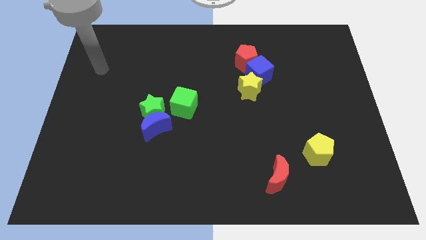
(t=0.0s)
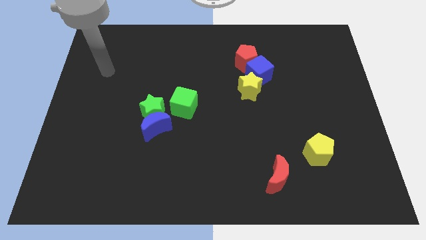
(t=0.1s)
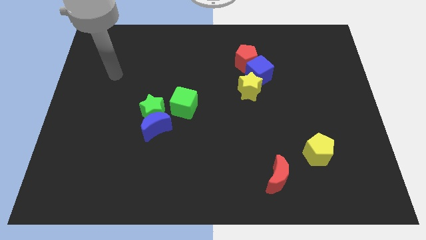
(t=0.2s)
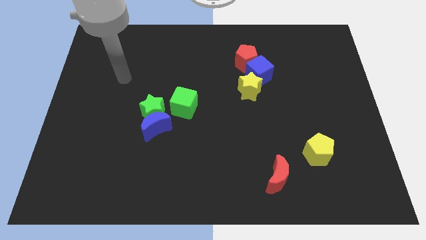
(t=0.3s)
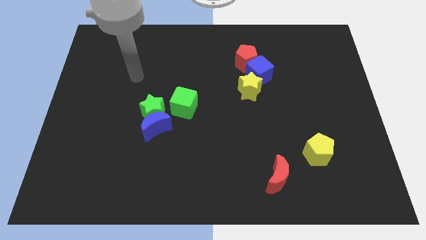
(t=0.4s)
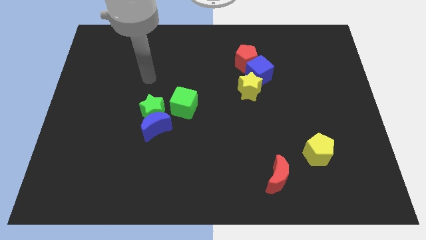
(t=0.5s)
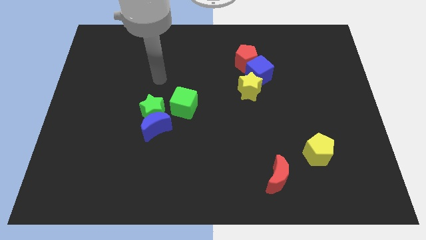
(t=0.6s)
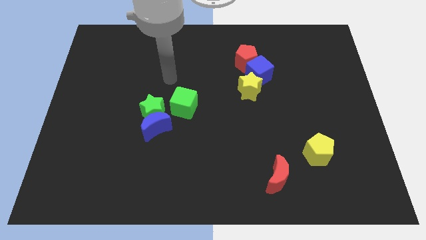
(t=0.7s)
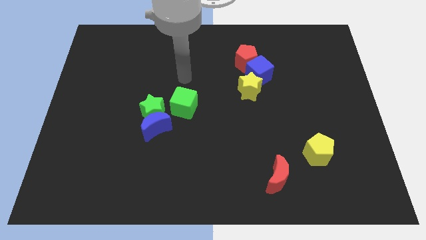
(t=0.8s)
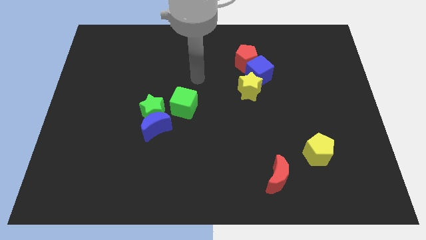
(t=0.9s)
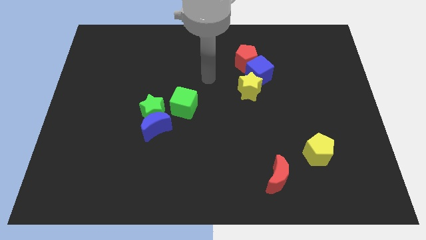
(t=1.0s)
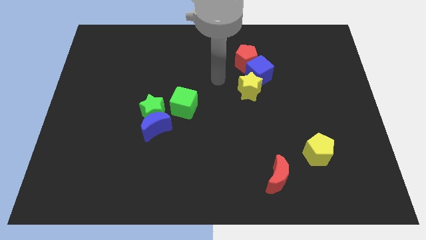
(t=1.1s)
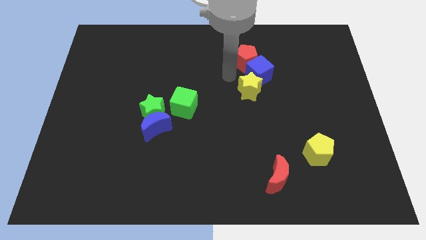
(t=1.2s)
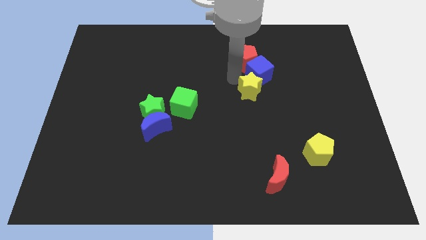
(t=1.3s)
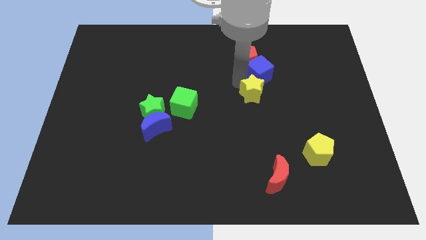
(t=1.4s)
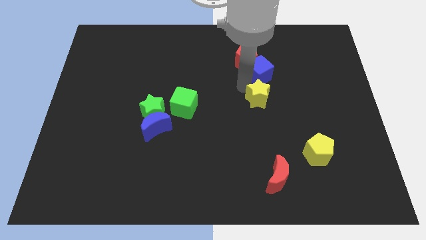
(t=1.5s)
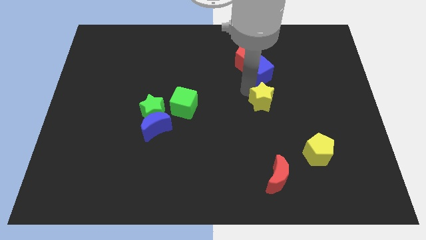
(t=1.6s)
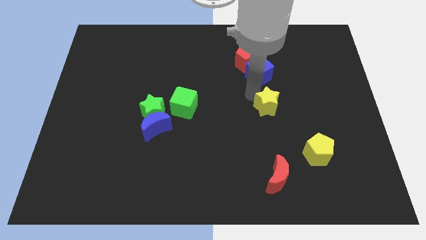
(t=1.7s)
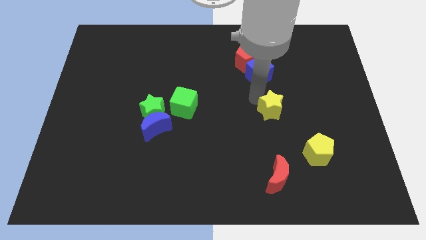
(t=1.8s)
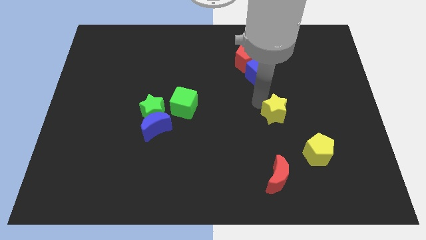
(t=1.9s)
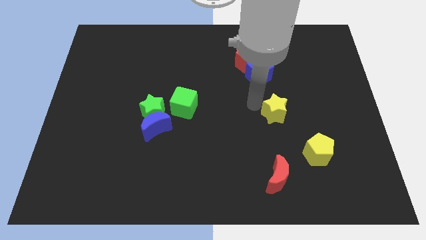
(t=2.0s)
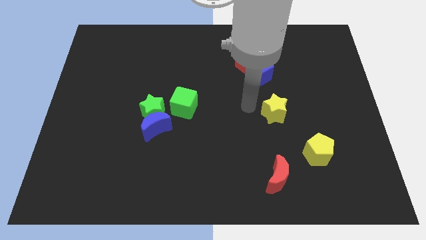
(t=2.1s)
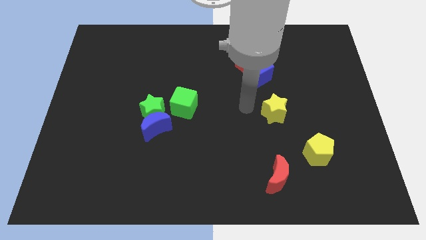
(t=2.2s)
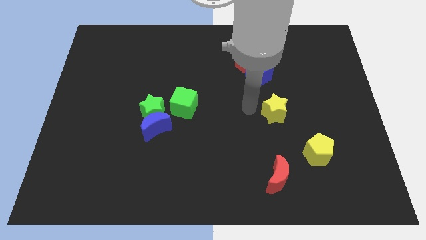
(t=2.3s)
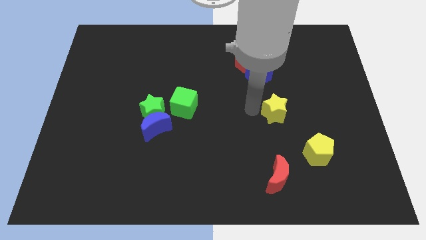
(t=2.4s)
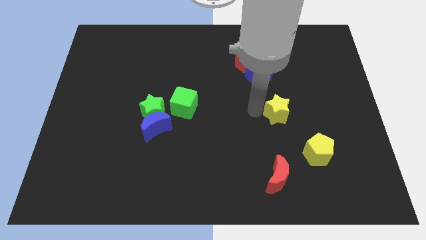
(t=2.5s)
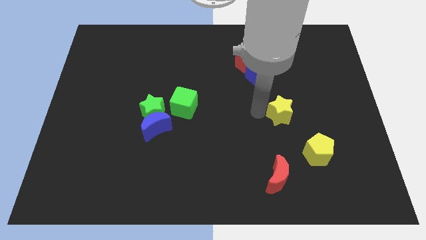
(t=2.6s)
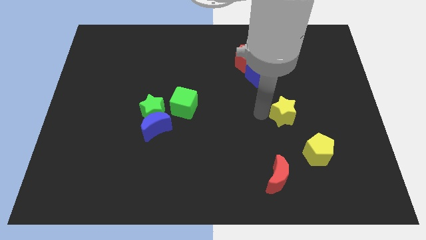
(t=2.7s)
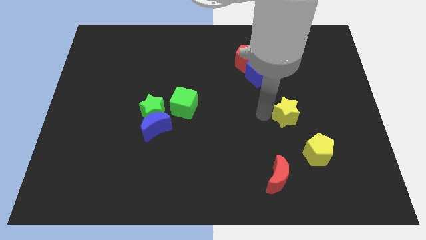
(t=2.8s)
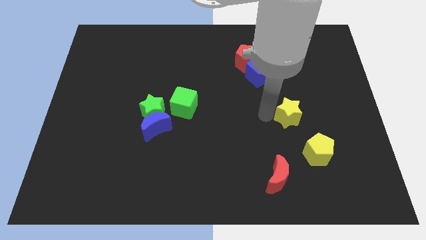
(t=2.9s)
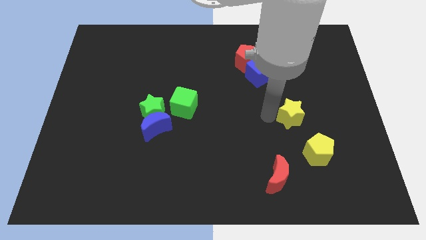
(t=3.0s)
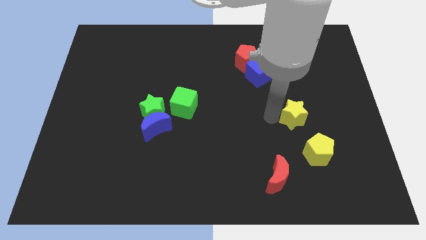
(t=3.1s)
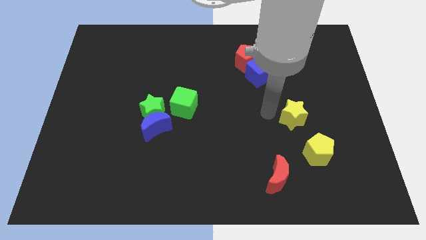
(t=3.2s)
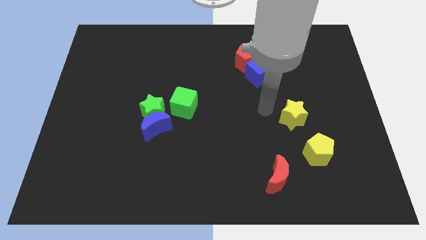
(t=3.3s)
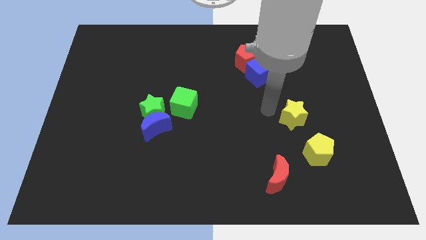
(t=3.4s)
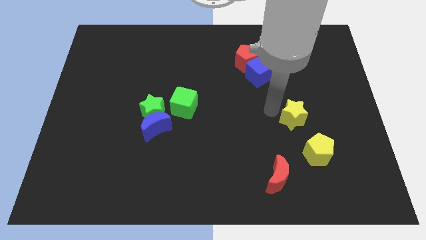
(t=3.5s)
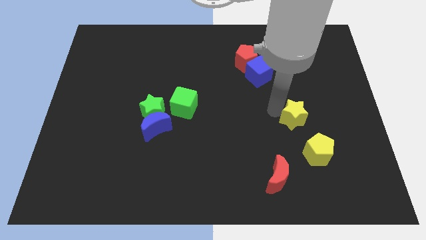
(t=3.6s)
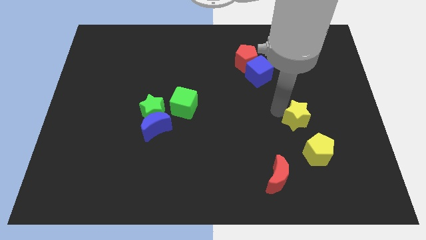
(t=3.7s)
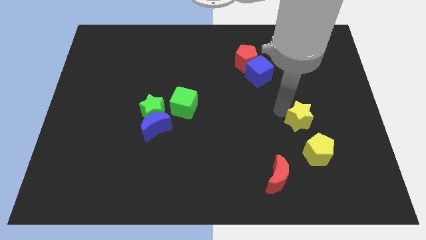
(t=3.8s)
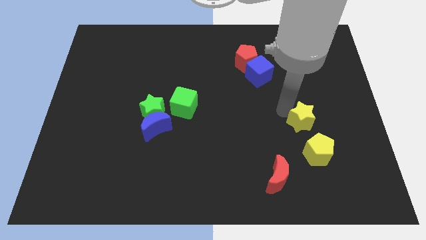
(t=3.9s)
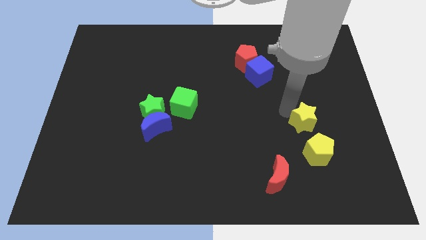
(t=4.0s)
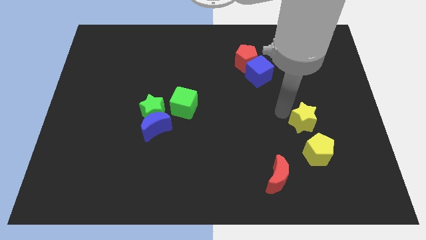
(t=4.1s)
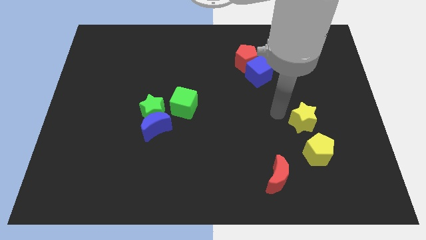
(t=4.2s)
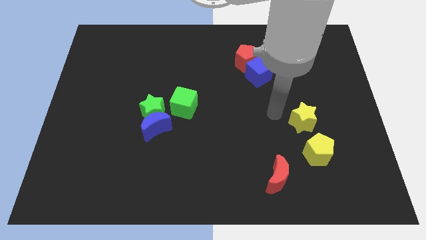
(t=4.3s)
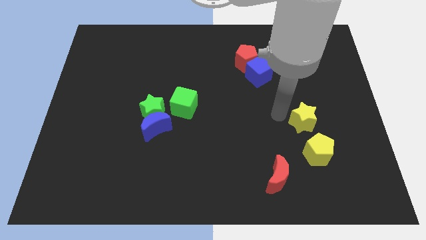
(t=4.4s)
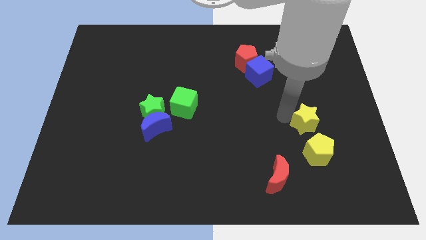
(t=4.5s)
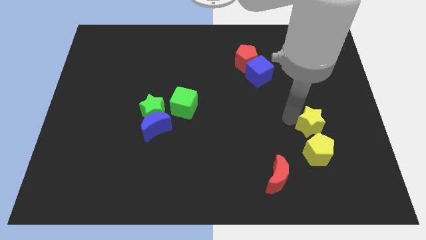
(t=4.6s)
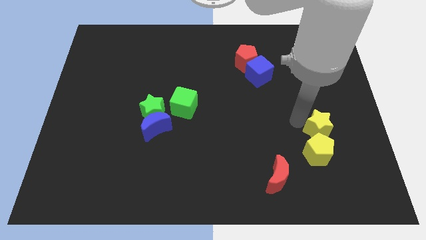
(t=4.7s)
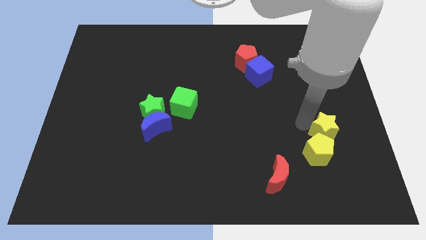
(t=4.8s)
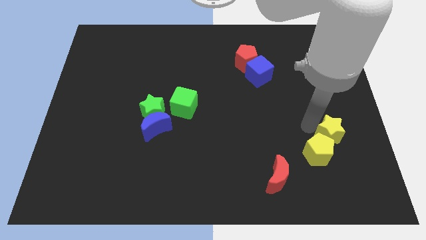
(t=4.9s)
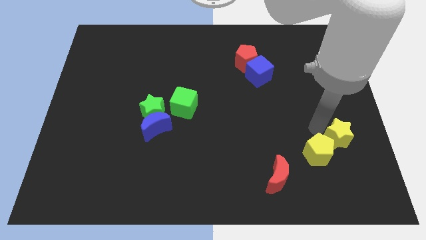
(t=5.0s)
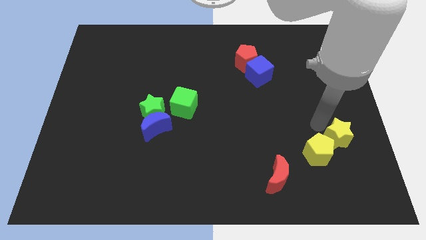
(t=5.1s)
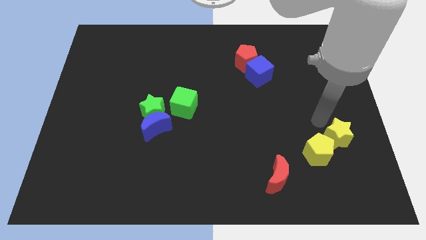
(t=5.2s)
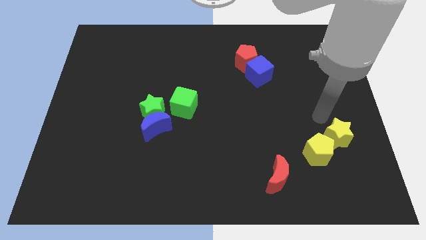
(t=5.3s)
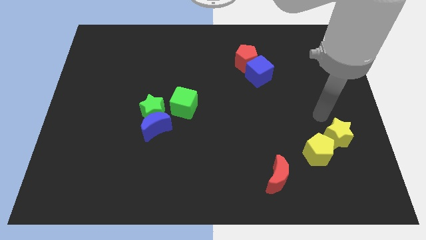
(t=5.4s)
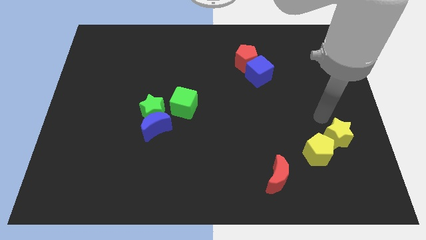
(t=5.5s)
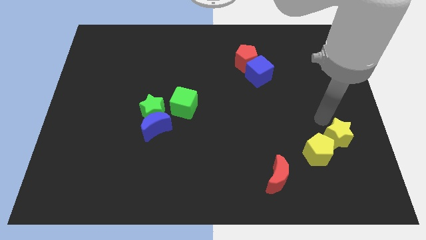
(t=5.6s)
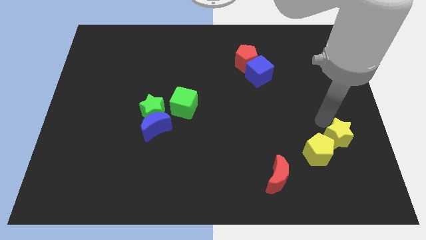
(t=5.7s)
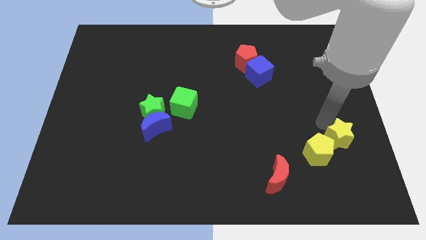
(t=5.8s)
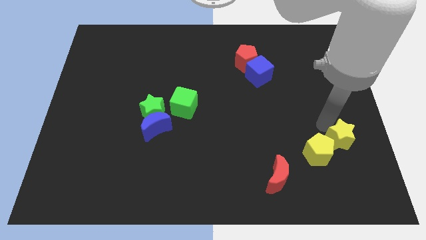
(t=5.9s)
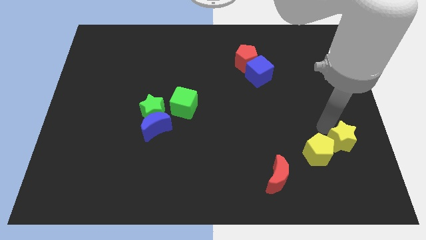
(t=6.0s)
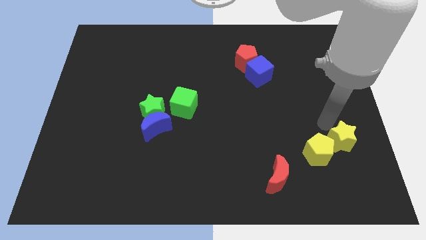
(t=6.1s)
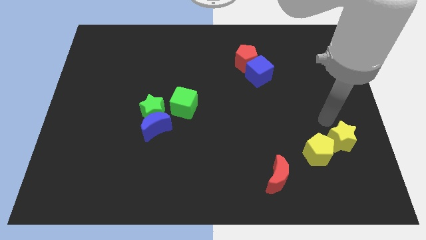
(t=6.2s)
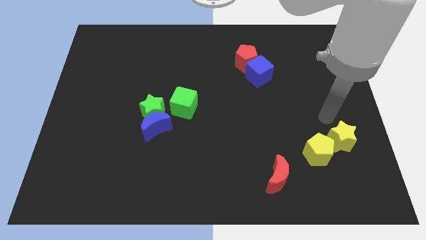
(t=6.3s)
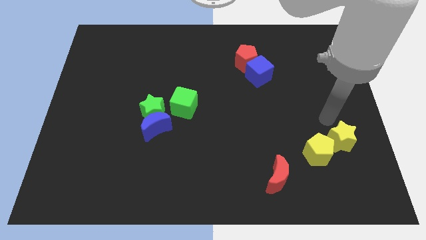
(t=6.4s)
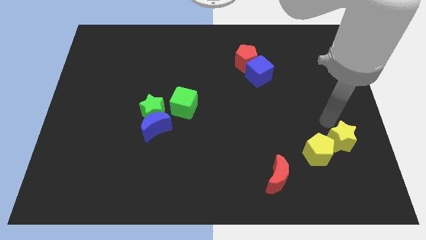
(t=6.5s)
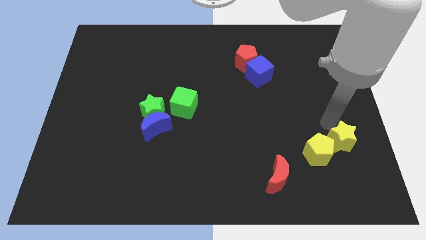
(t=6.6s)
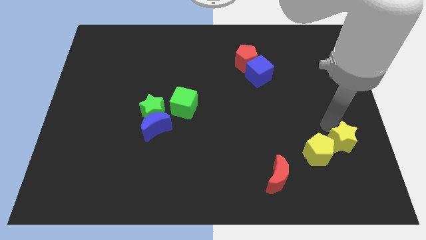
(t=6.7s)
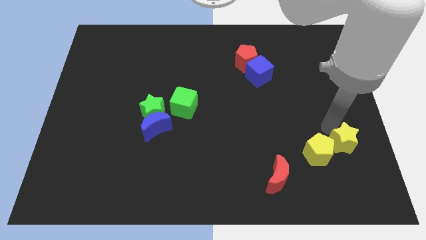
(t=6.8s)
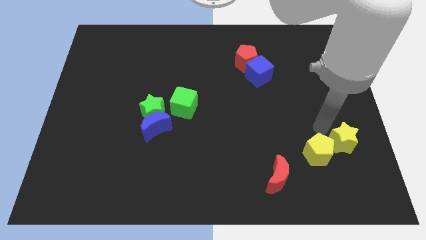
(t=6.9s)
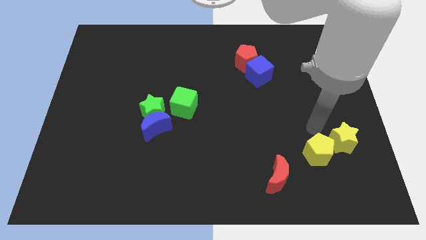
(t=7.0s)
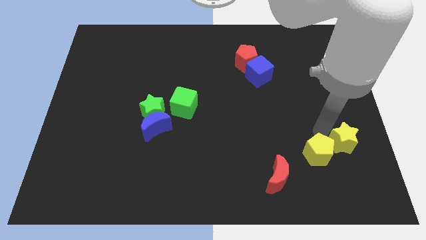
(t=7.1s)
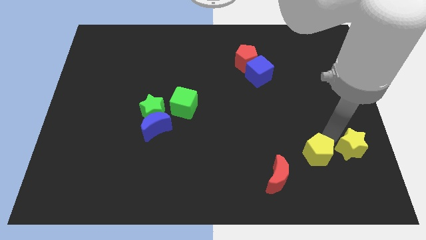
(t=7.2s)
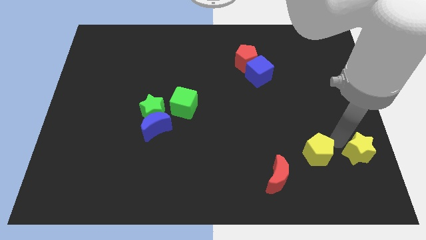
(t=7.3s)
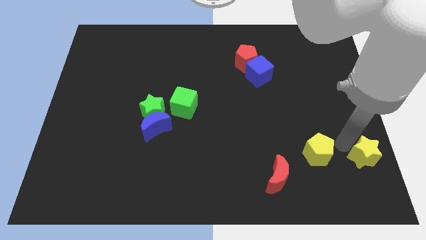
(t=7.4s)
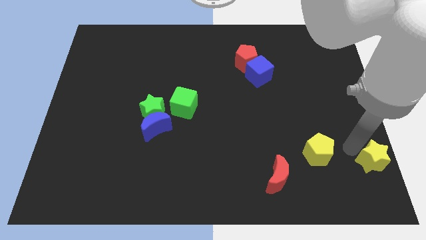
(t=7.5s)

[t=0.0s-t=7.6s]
push the yellow star to the bottom right of the board
